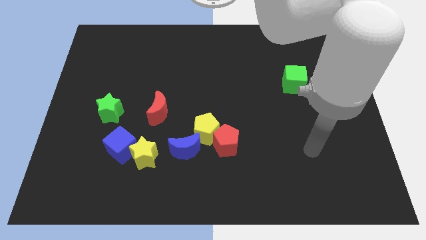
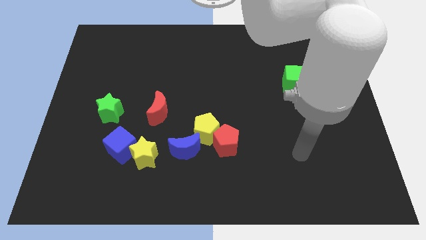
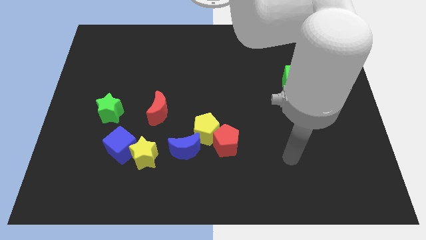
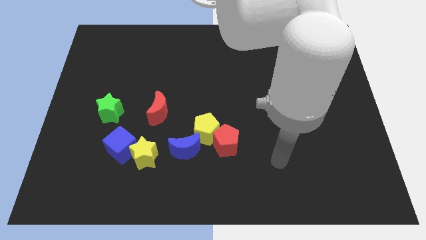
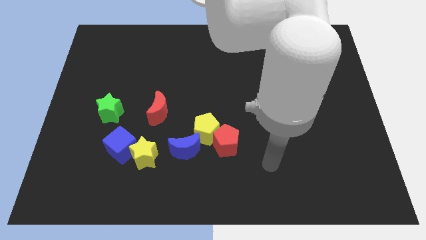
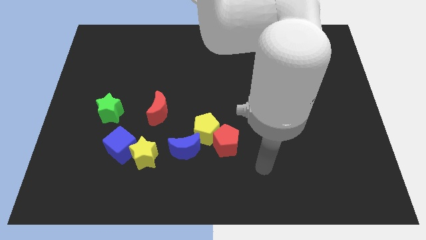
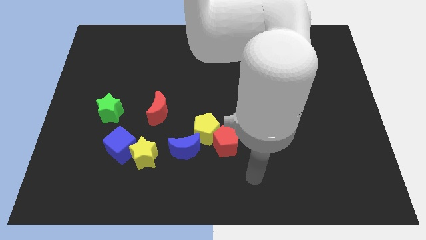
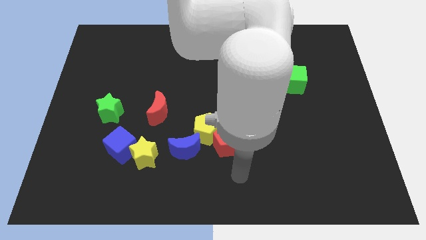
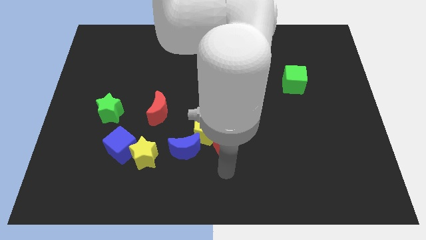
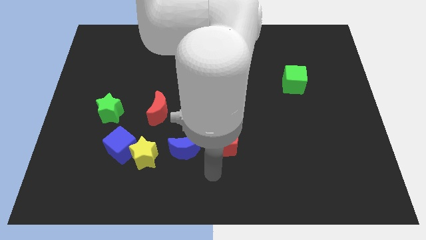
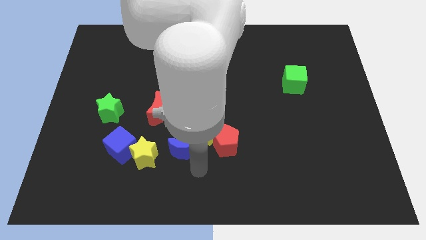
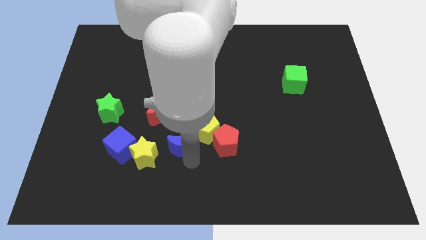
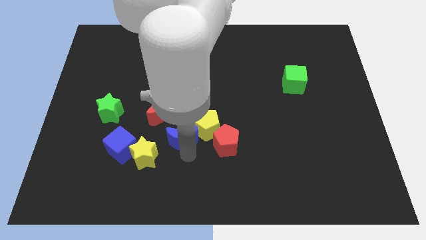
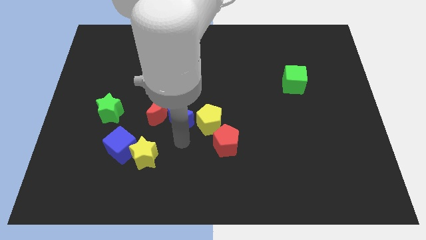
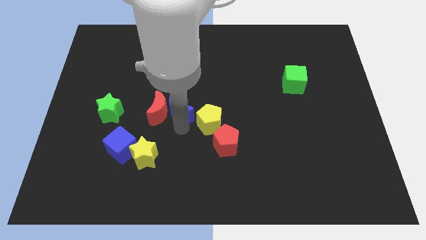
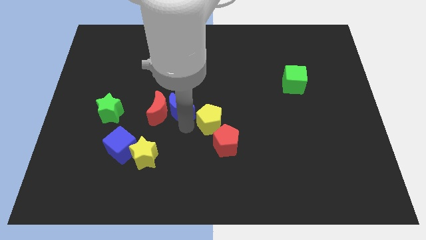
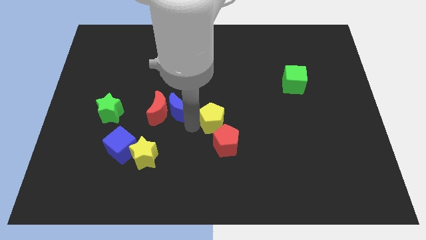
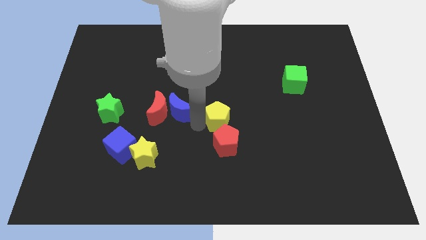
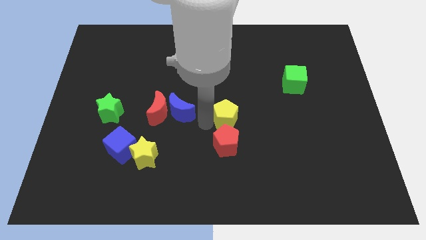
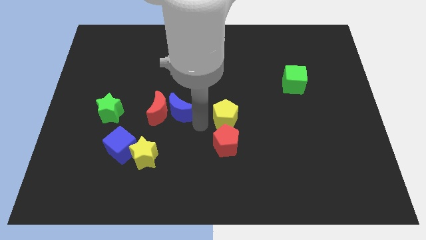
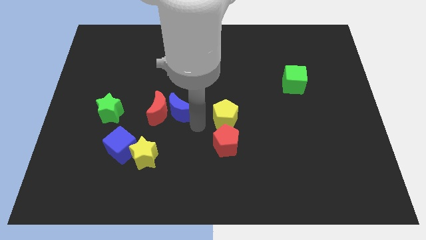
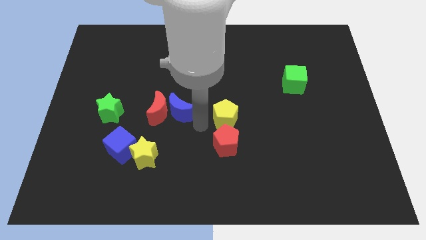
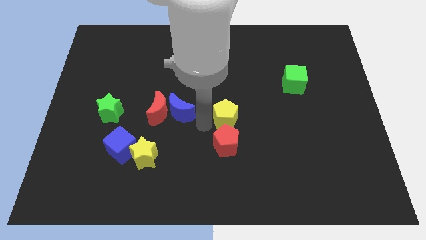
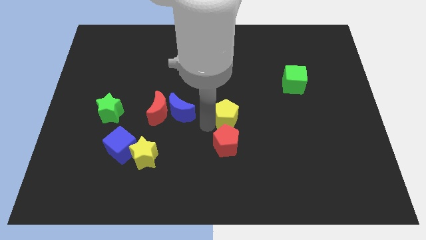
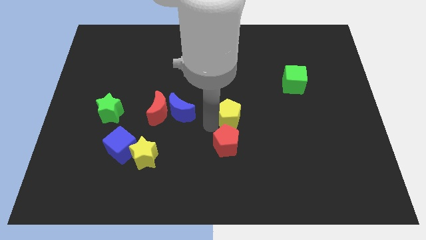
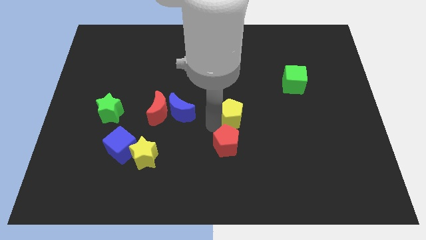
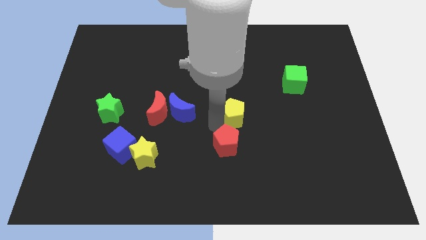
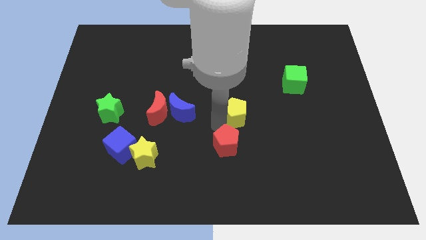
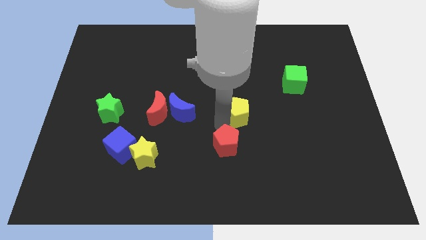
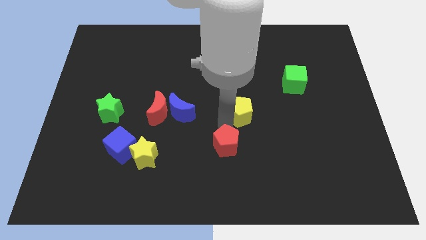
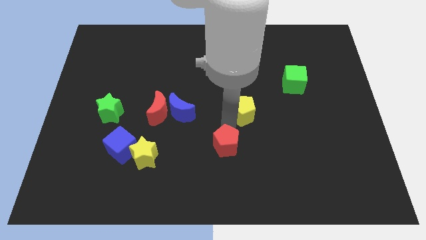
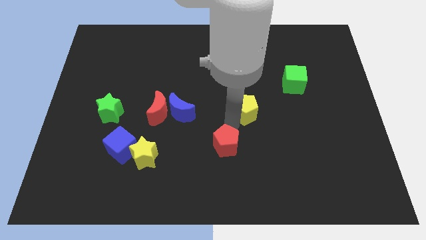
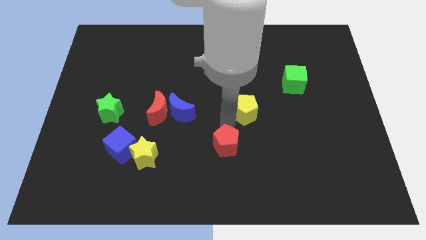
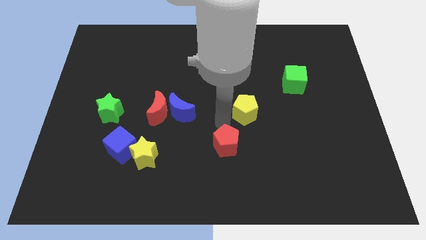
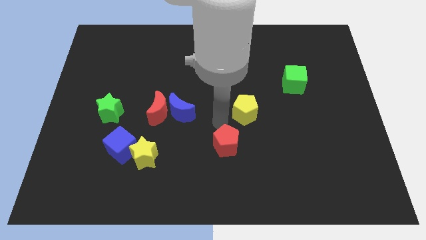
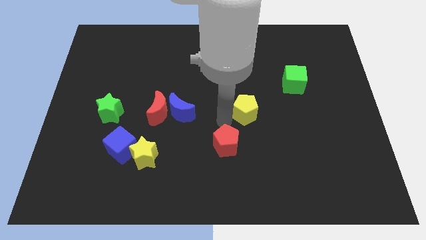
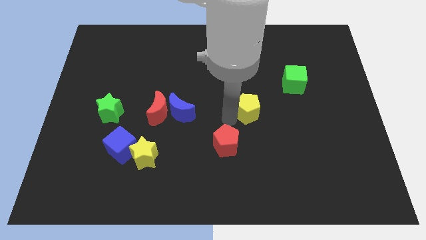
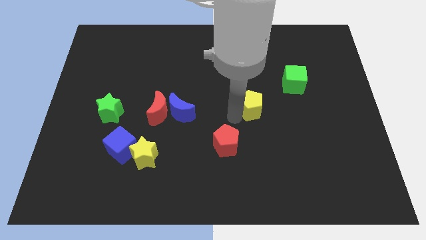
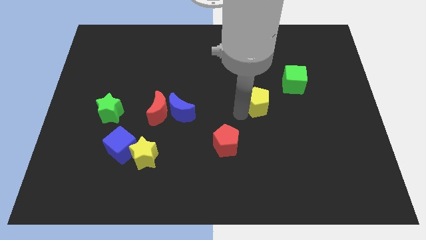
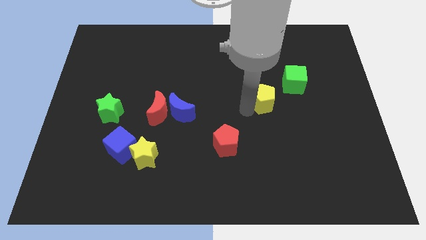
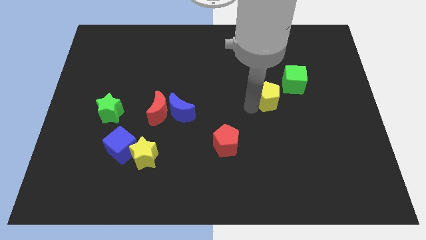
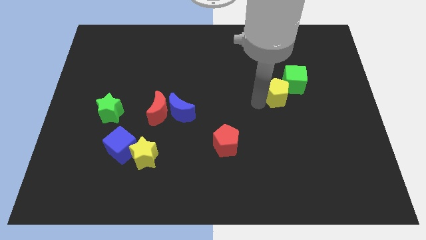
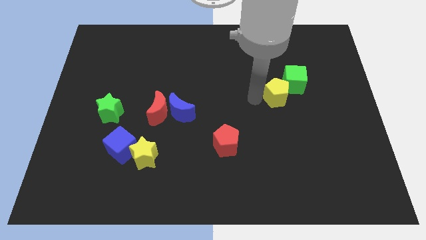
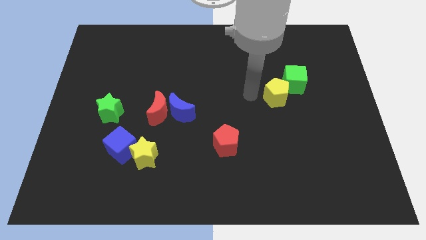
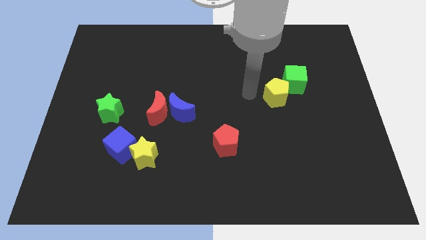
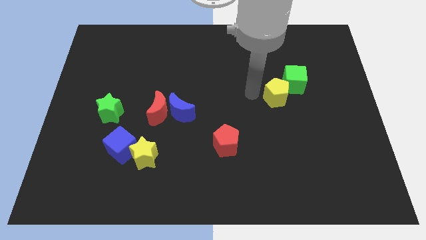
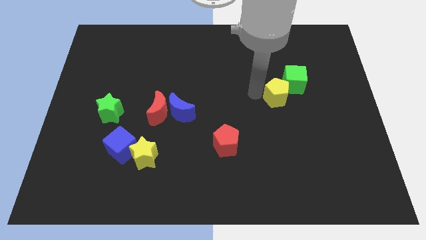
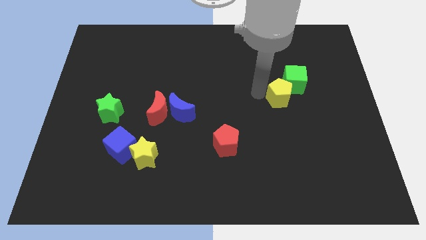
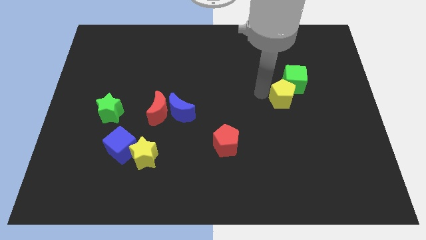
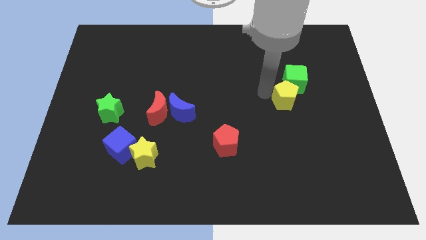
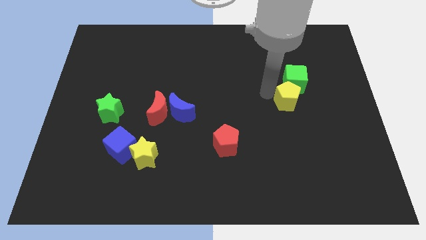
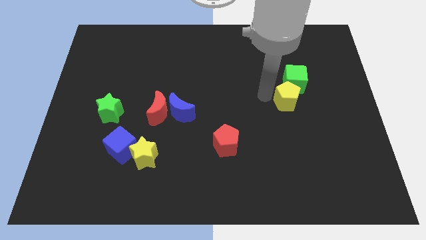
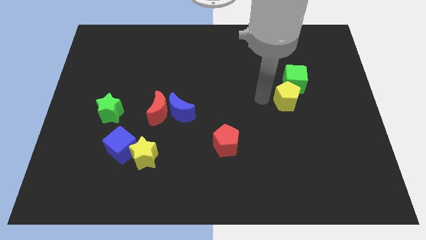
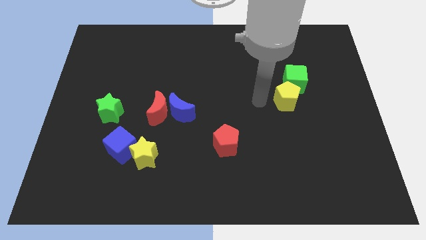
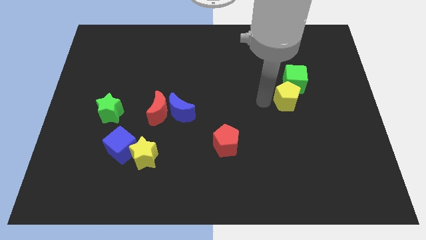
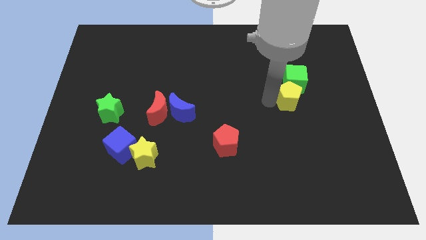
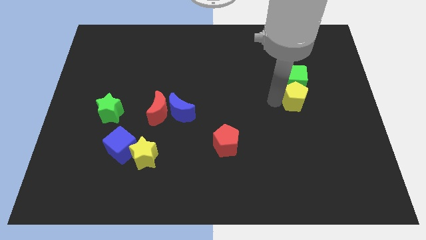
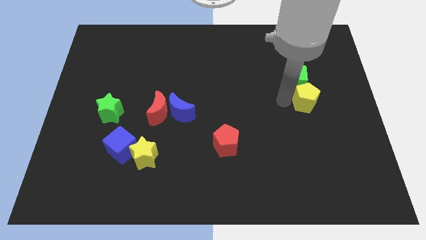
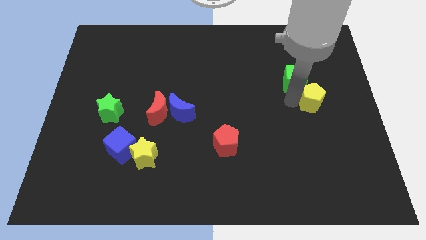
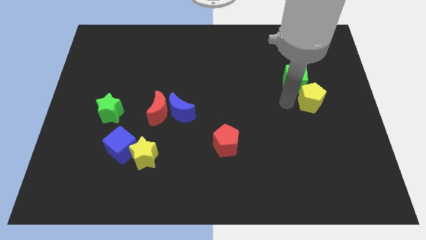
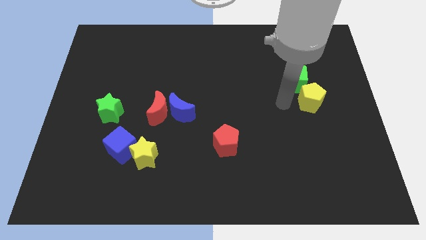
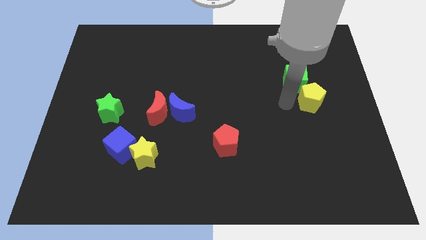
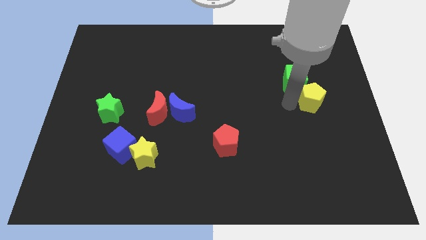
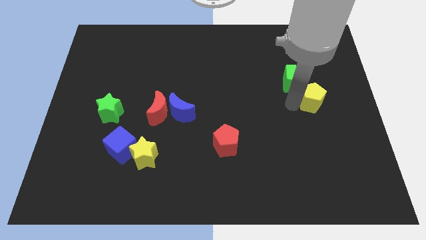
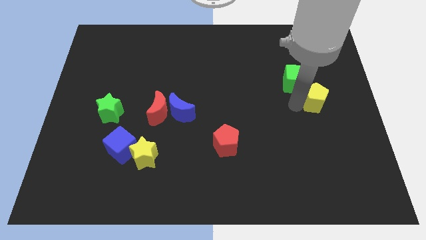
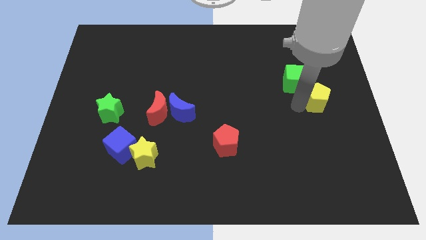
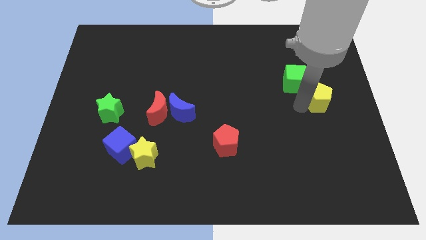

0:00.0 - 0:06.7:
push the yellow pentagon to the center right
